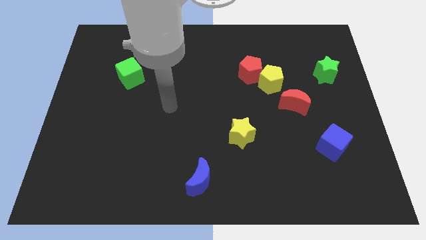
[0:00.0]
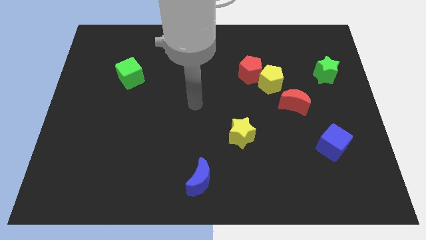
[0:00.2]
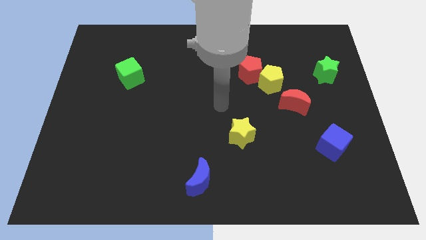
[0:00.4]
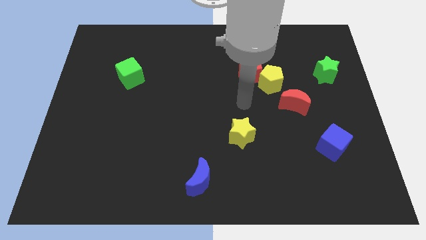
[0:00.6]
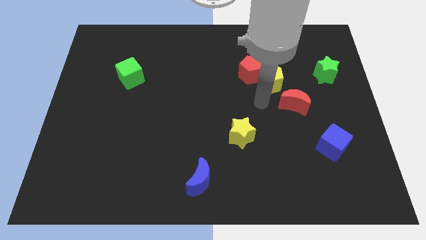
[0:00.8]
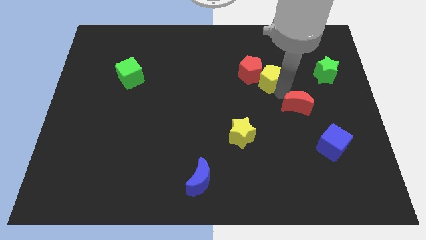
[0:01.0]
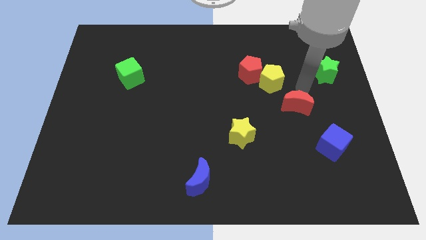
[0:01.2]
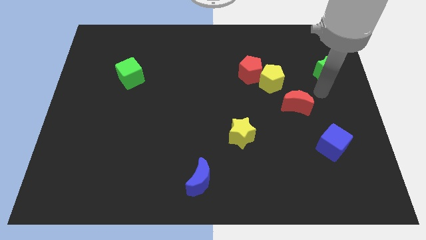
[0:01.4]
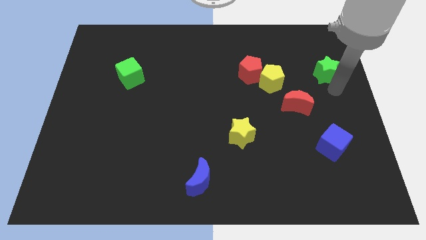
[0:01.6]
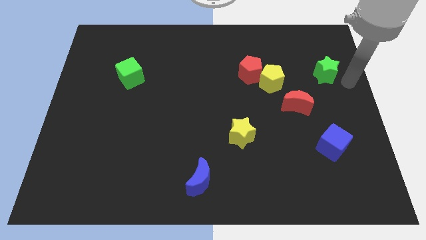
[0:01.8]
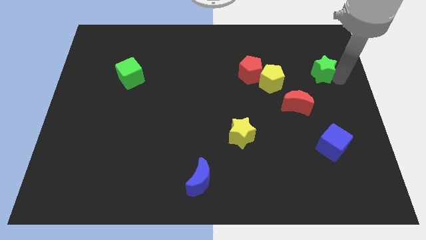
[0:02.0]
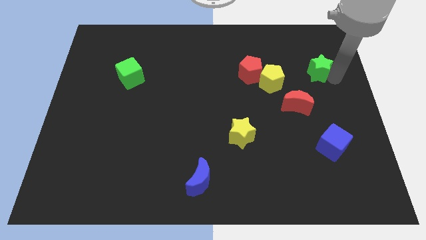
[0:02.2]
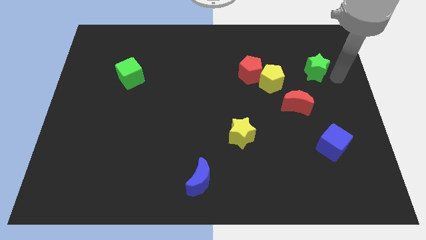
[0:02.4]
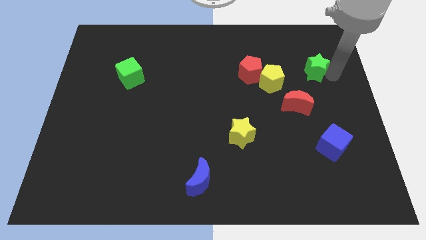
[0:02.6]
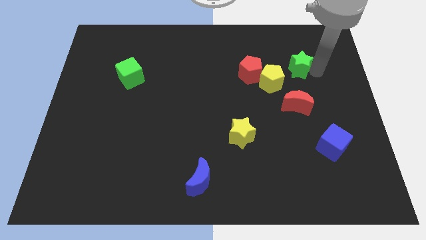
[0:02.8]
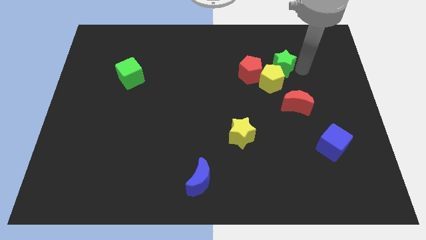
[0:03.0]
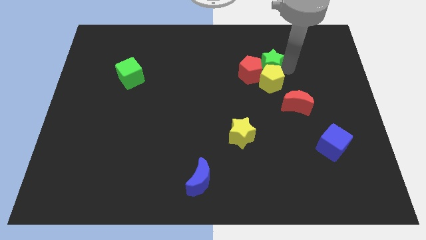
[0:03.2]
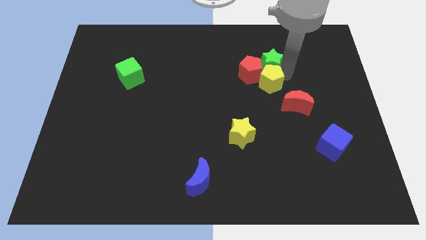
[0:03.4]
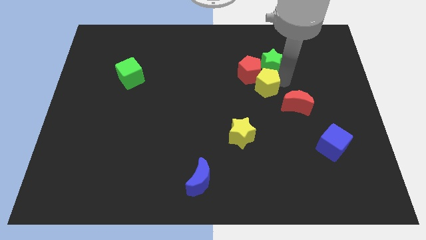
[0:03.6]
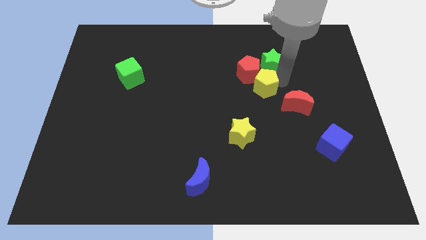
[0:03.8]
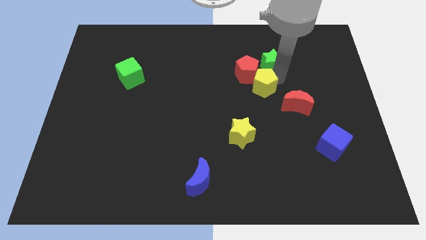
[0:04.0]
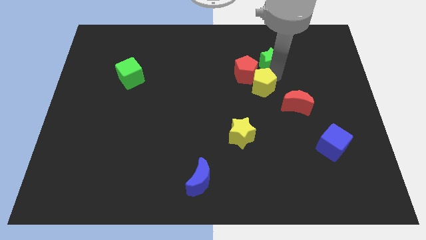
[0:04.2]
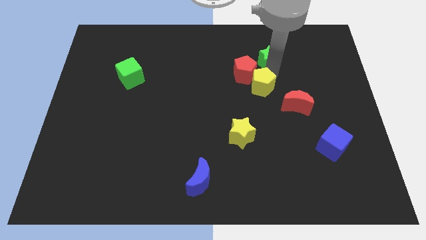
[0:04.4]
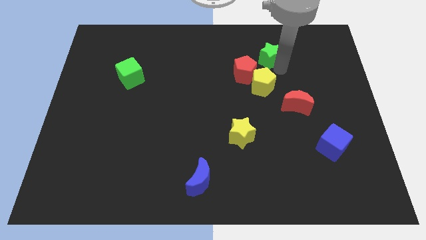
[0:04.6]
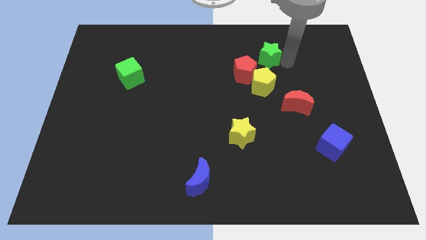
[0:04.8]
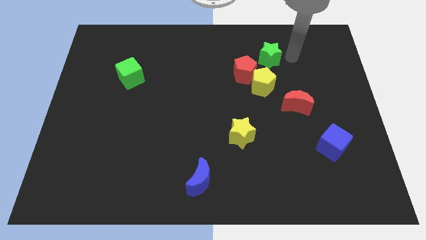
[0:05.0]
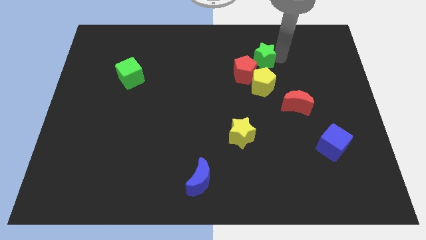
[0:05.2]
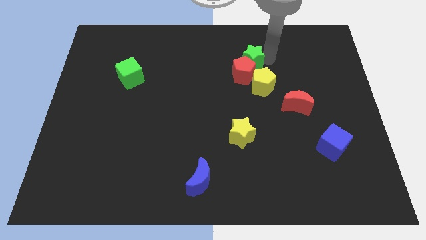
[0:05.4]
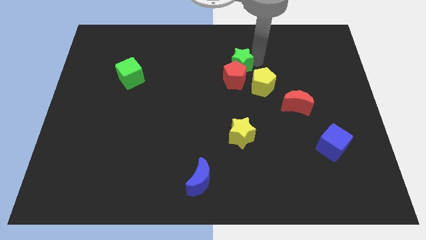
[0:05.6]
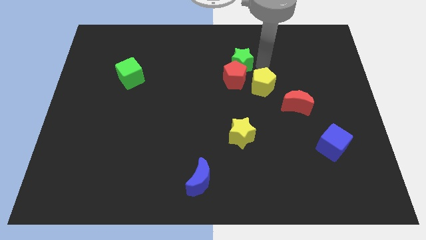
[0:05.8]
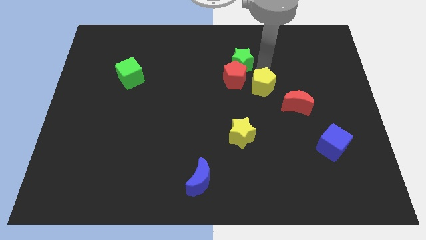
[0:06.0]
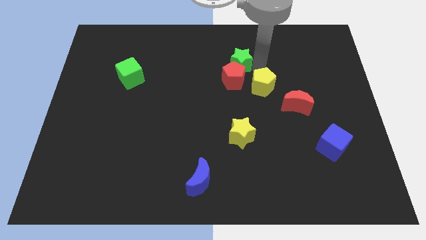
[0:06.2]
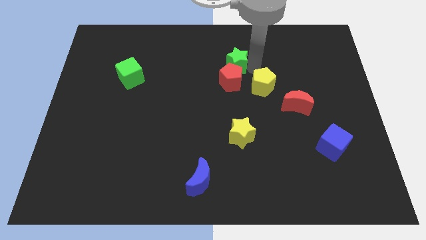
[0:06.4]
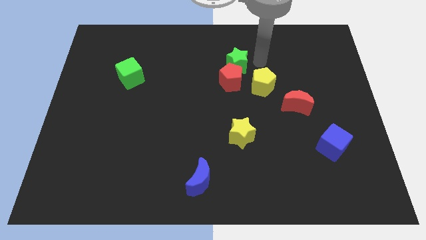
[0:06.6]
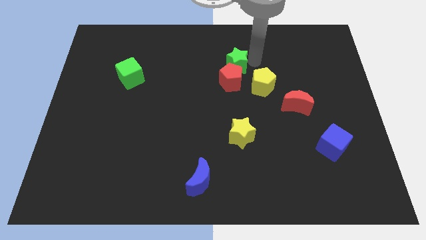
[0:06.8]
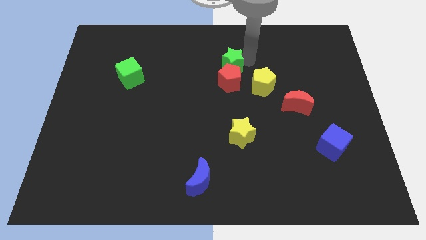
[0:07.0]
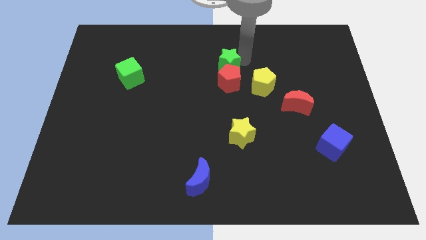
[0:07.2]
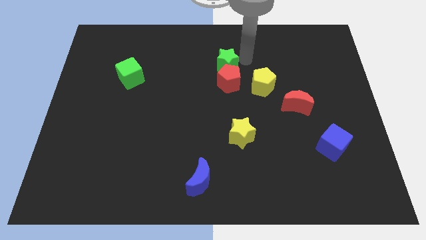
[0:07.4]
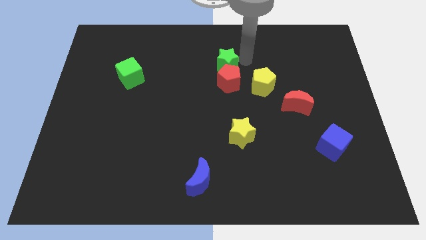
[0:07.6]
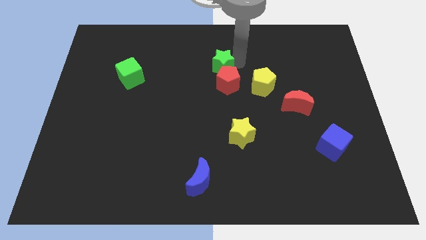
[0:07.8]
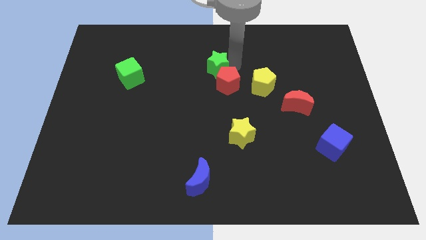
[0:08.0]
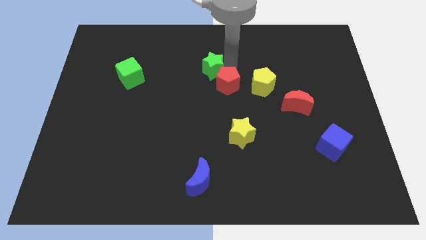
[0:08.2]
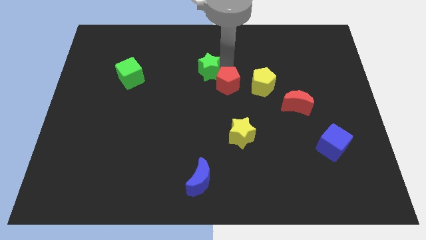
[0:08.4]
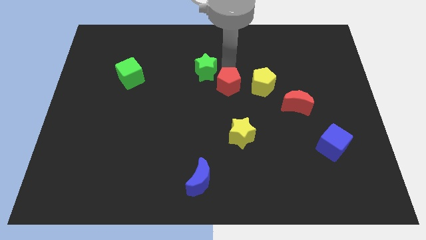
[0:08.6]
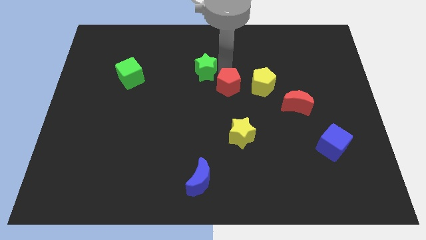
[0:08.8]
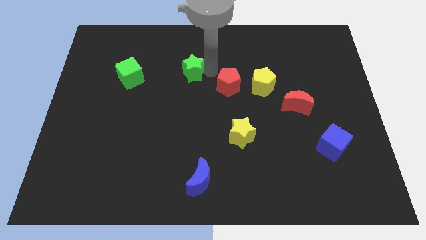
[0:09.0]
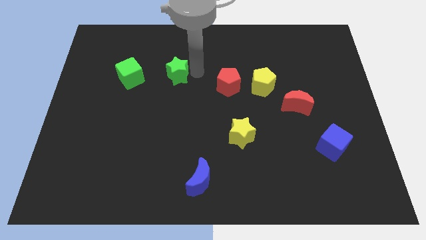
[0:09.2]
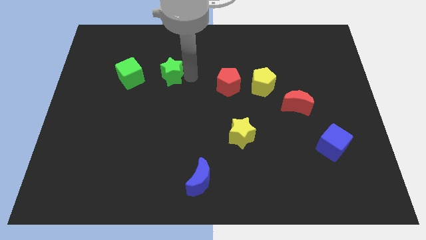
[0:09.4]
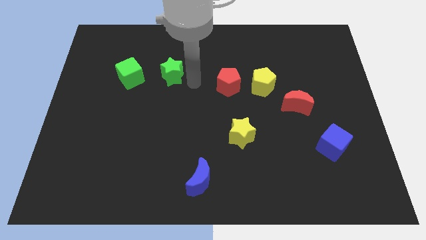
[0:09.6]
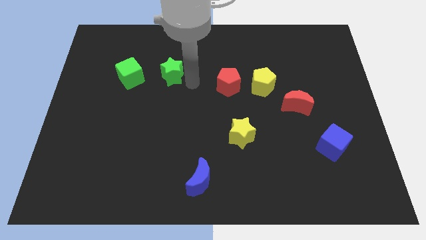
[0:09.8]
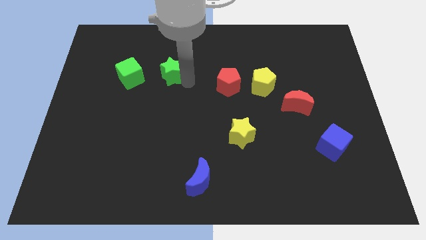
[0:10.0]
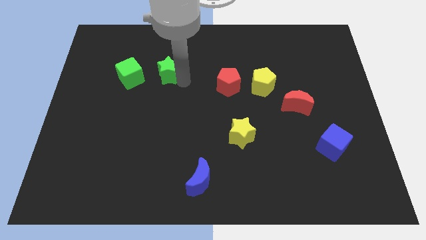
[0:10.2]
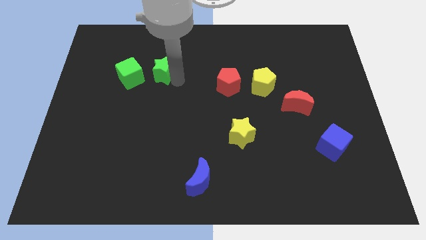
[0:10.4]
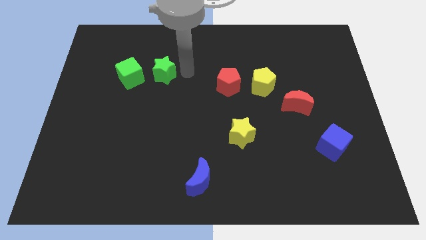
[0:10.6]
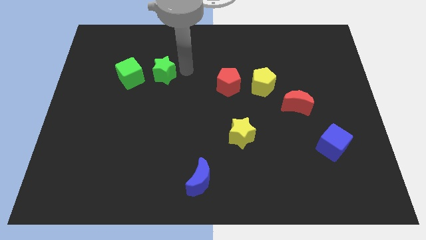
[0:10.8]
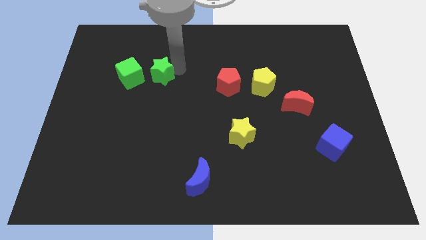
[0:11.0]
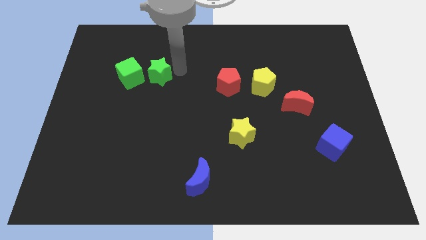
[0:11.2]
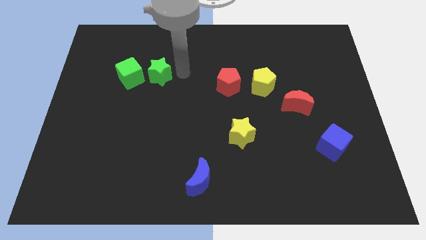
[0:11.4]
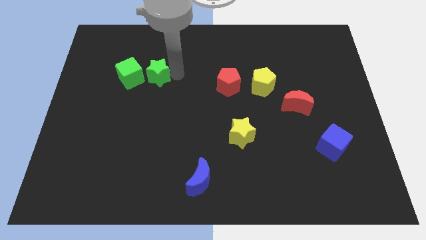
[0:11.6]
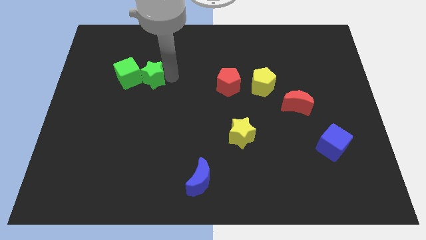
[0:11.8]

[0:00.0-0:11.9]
push the green star to the green cube

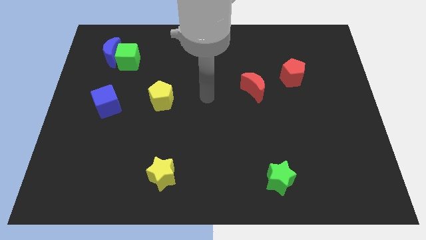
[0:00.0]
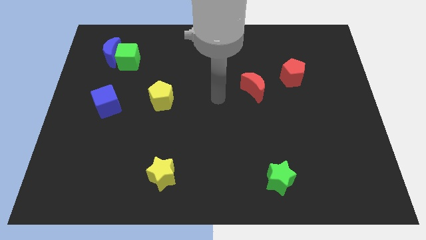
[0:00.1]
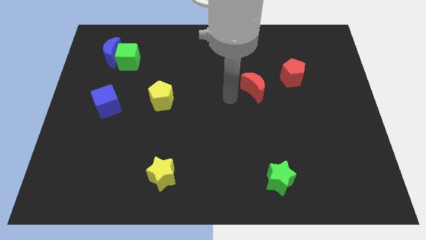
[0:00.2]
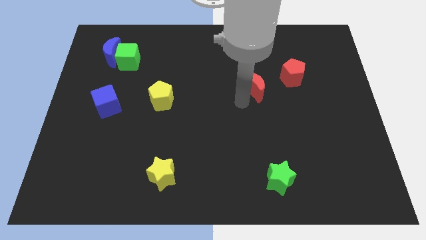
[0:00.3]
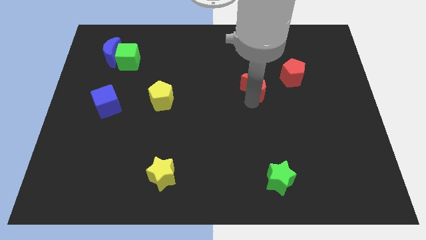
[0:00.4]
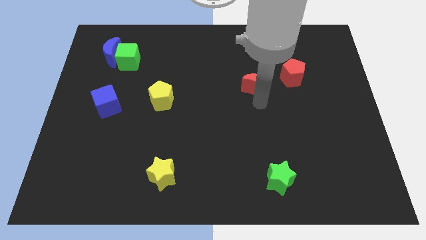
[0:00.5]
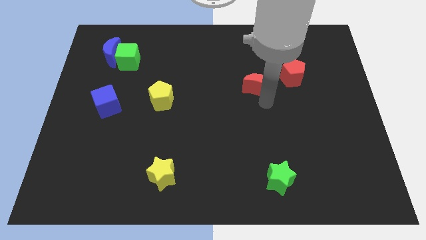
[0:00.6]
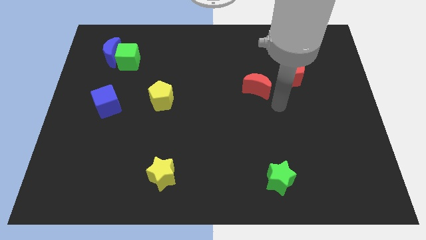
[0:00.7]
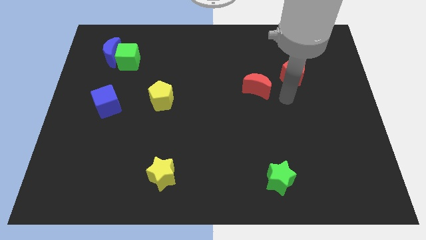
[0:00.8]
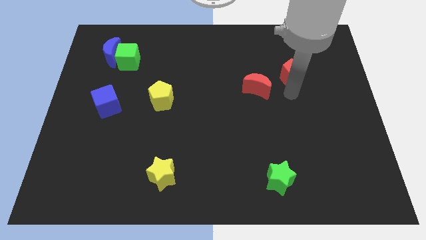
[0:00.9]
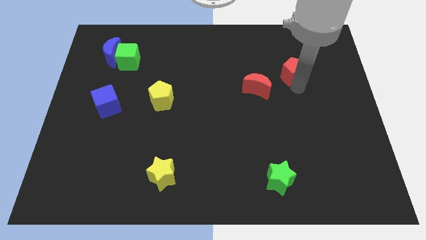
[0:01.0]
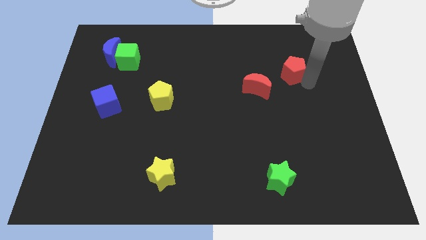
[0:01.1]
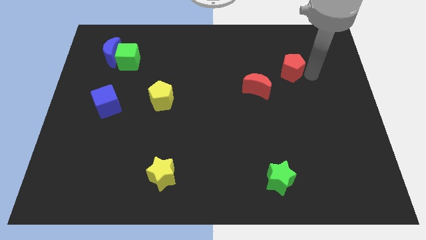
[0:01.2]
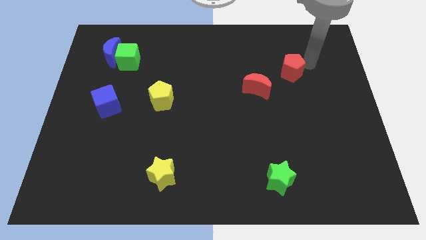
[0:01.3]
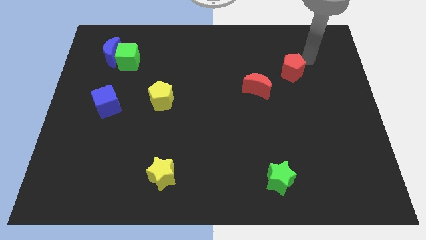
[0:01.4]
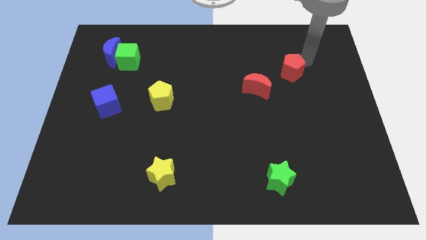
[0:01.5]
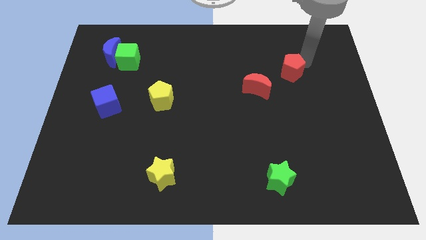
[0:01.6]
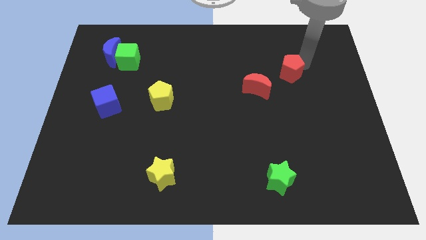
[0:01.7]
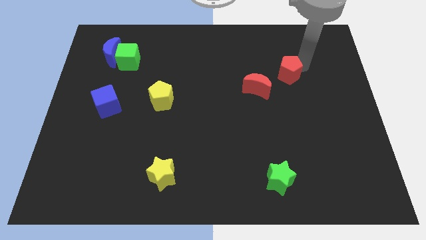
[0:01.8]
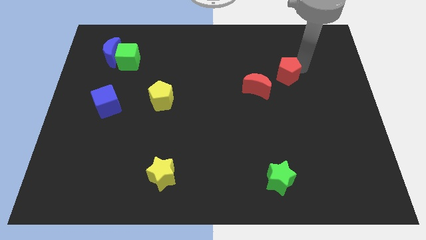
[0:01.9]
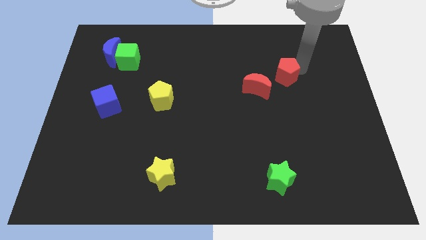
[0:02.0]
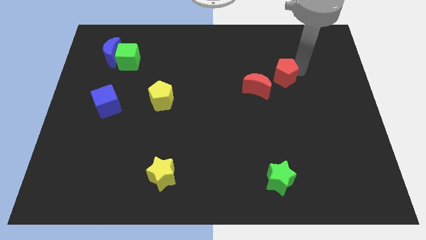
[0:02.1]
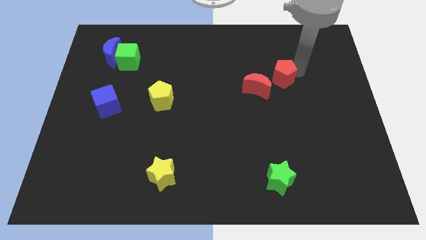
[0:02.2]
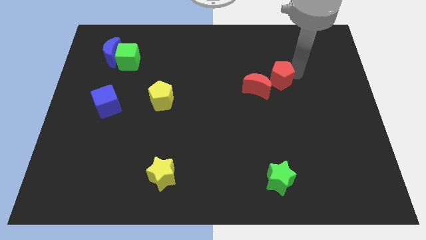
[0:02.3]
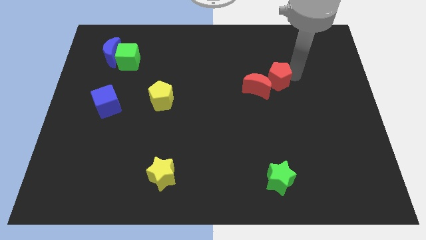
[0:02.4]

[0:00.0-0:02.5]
move the red pentagon next to the red moon
